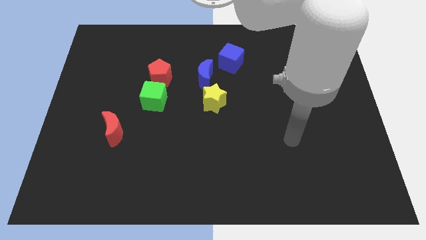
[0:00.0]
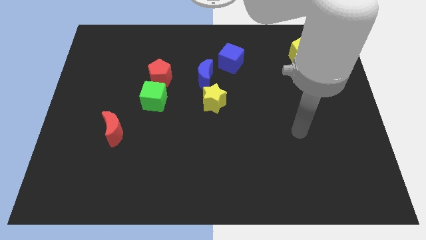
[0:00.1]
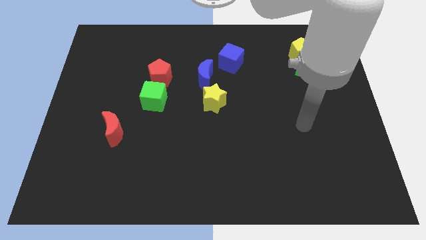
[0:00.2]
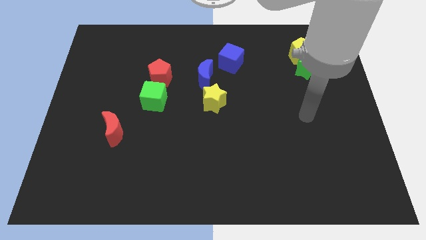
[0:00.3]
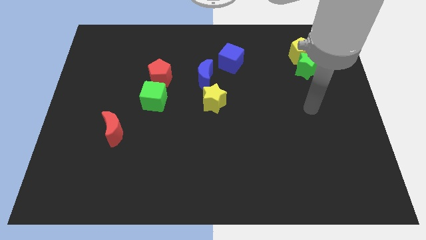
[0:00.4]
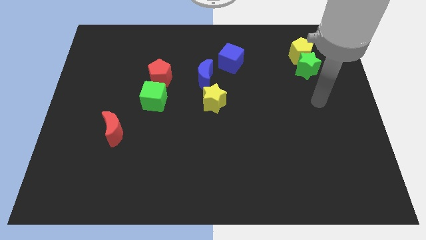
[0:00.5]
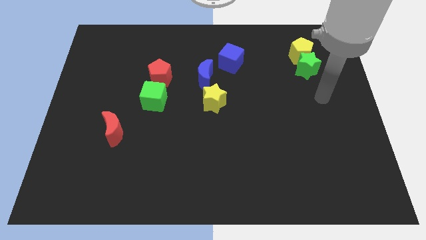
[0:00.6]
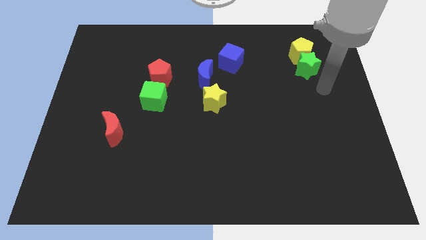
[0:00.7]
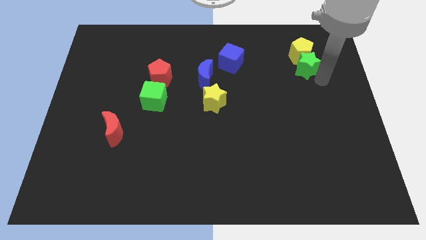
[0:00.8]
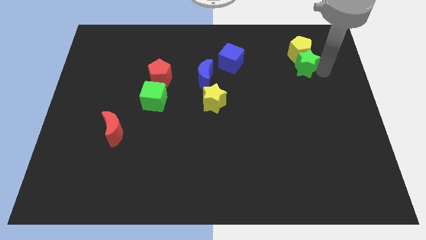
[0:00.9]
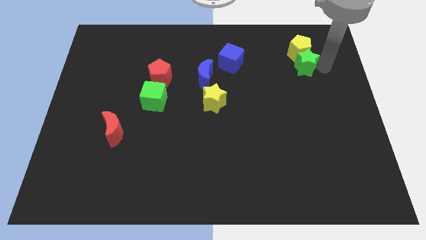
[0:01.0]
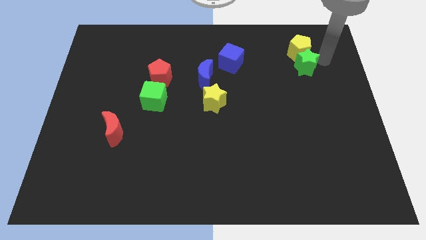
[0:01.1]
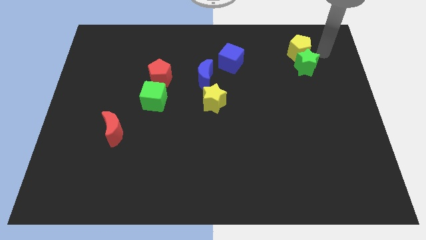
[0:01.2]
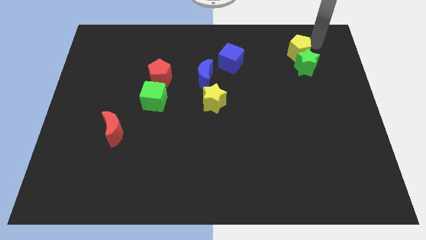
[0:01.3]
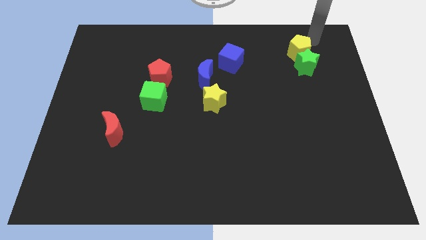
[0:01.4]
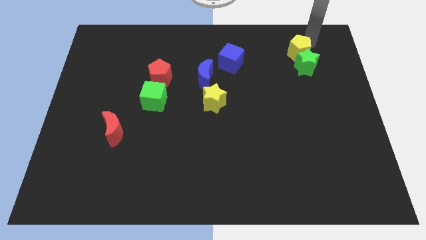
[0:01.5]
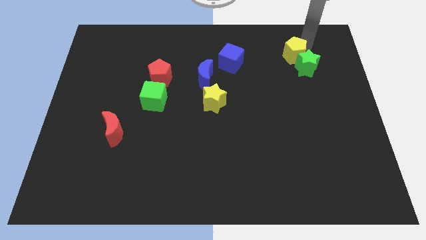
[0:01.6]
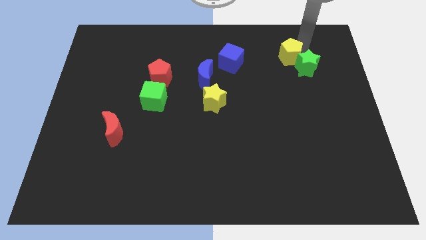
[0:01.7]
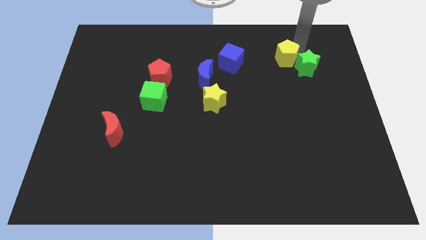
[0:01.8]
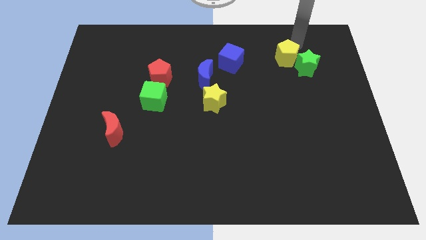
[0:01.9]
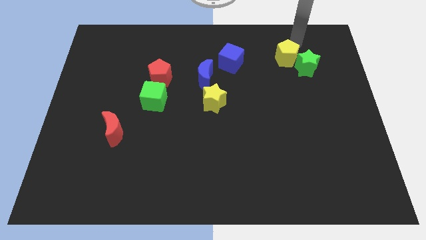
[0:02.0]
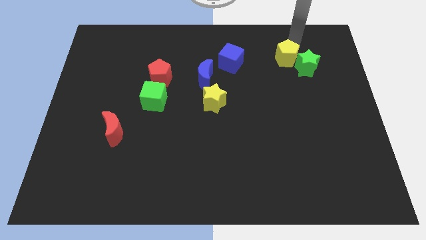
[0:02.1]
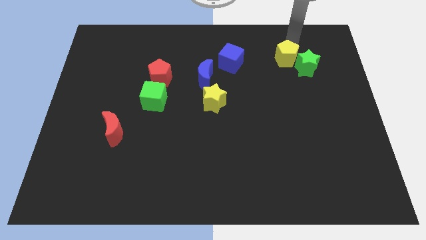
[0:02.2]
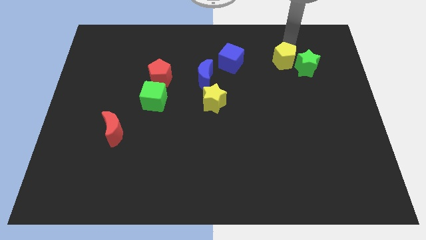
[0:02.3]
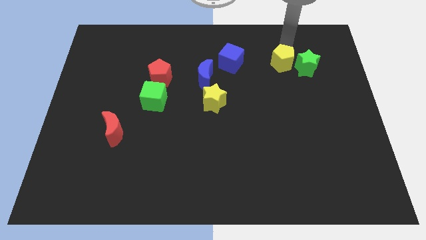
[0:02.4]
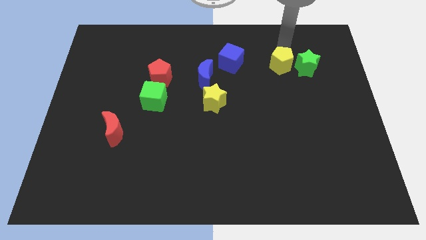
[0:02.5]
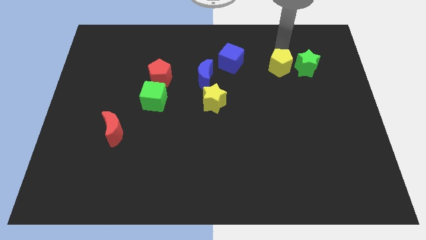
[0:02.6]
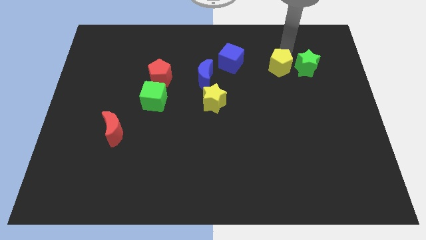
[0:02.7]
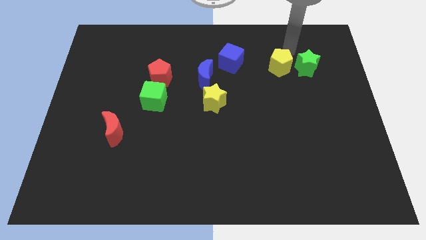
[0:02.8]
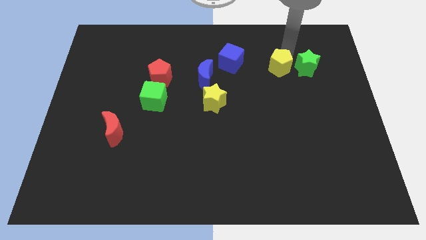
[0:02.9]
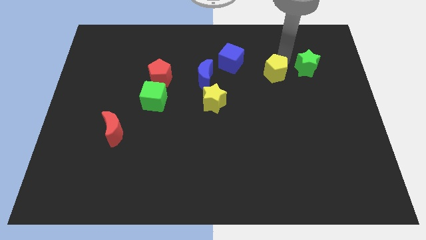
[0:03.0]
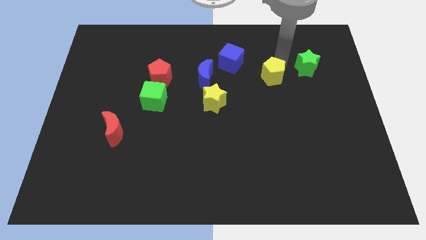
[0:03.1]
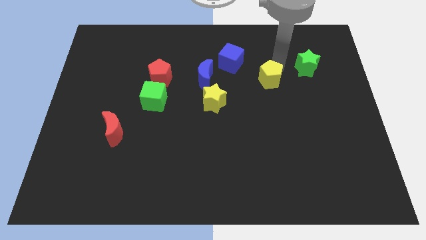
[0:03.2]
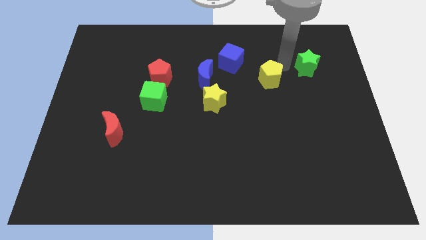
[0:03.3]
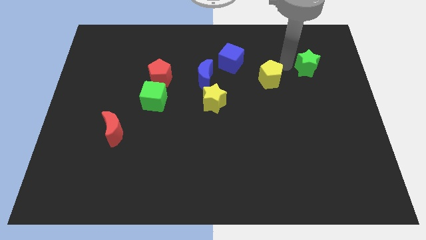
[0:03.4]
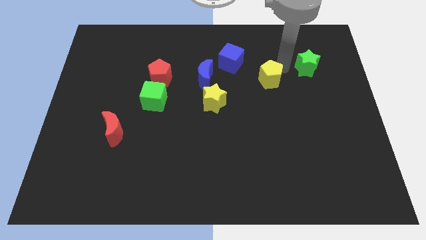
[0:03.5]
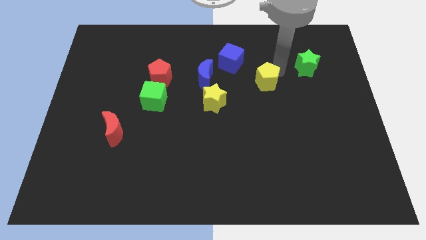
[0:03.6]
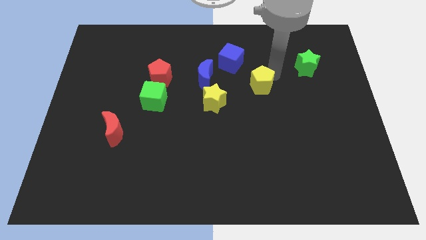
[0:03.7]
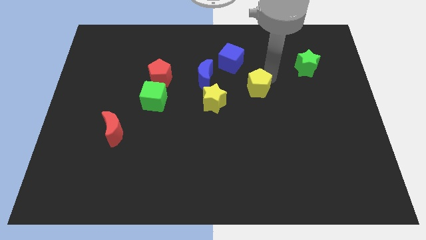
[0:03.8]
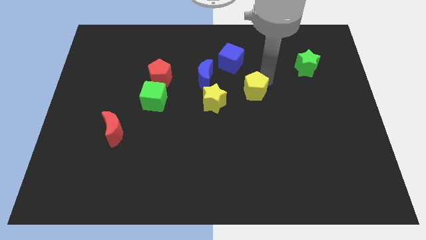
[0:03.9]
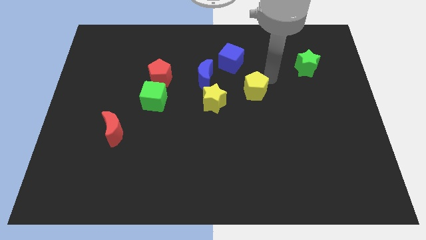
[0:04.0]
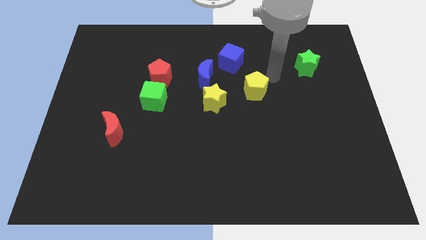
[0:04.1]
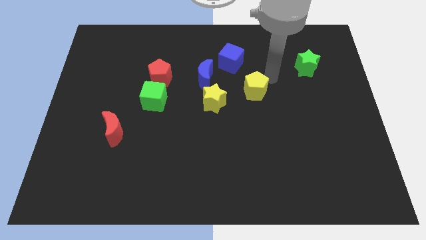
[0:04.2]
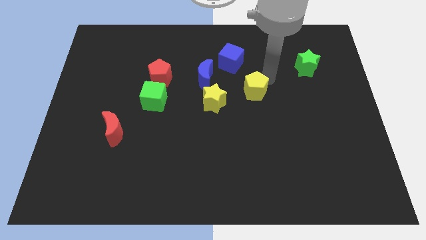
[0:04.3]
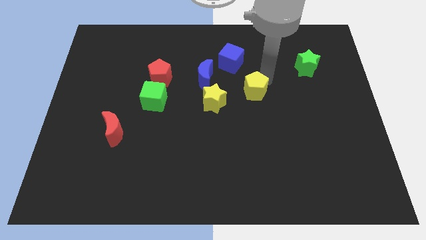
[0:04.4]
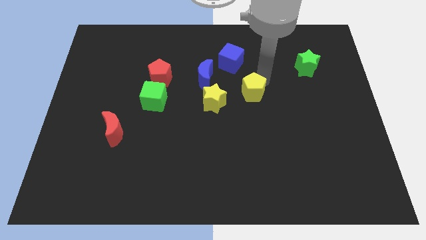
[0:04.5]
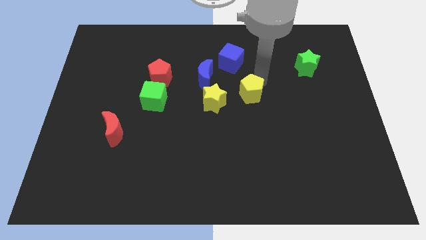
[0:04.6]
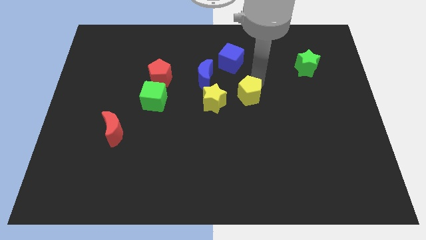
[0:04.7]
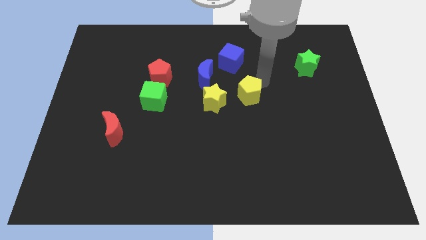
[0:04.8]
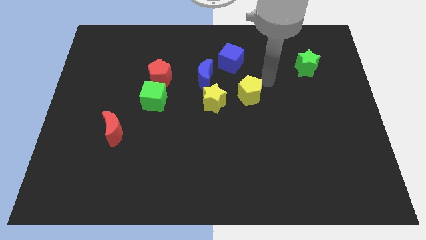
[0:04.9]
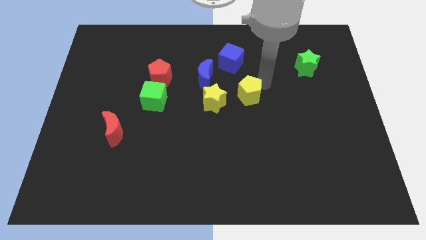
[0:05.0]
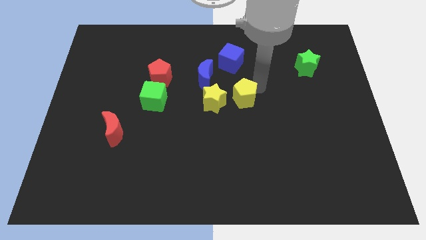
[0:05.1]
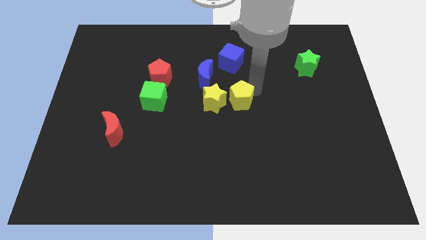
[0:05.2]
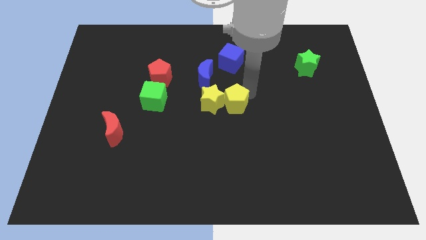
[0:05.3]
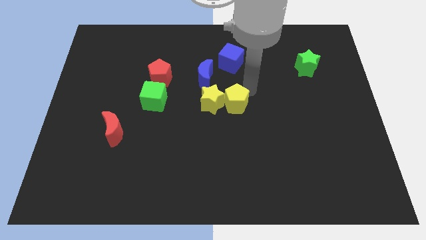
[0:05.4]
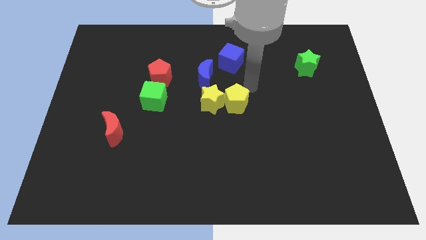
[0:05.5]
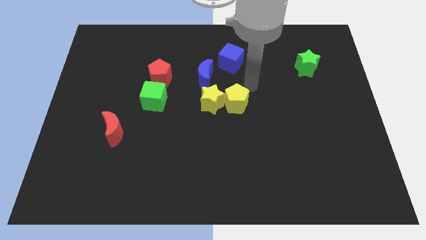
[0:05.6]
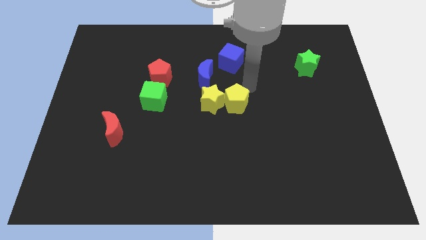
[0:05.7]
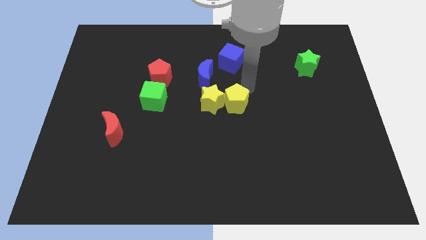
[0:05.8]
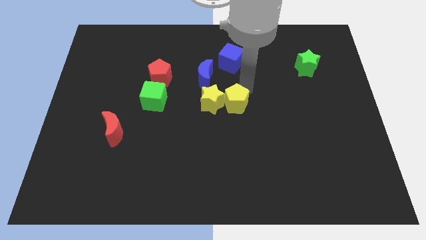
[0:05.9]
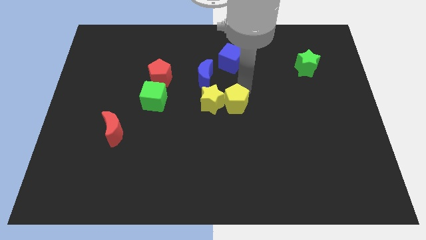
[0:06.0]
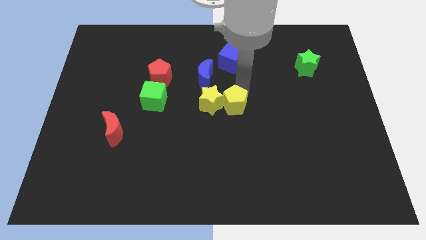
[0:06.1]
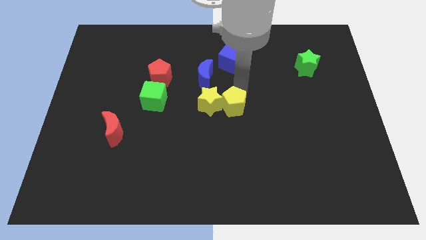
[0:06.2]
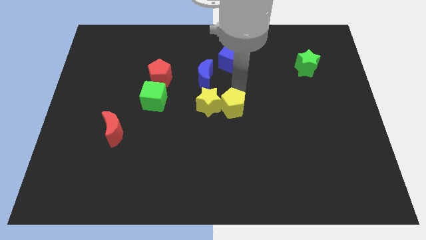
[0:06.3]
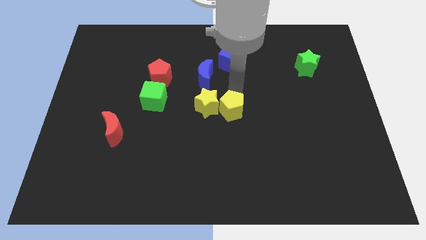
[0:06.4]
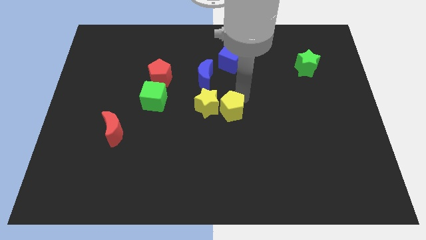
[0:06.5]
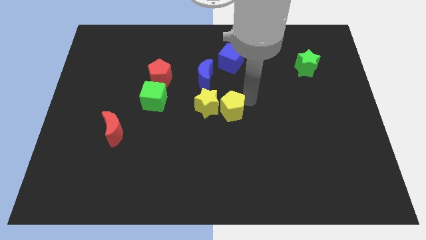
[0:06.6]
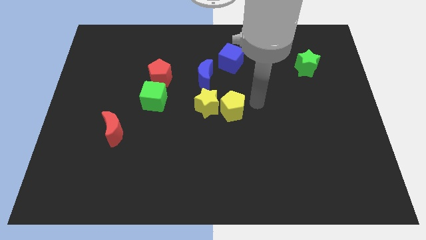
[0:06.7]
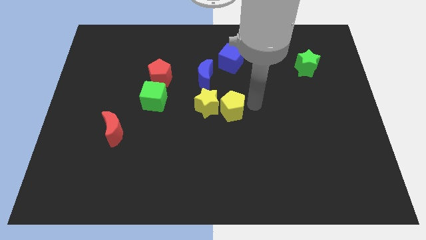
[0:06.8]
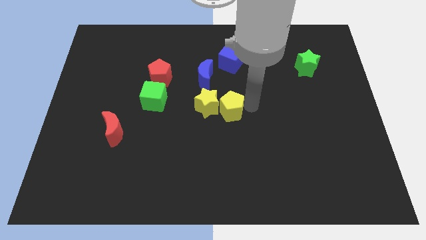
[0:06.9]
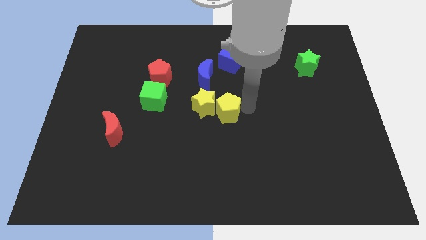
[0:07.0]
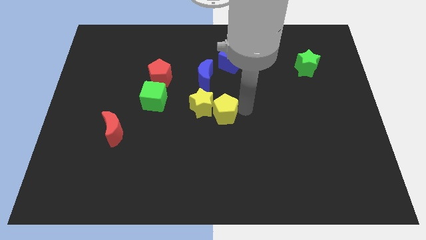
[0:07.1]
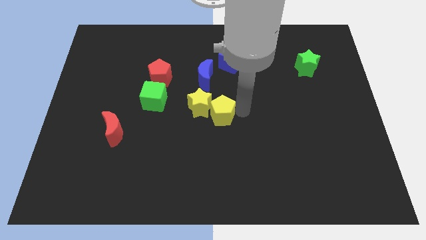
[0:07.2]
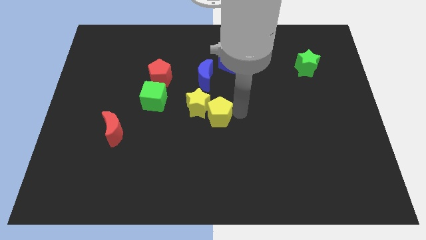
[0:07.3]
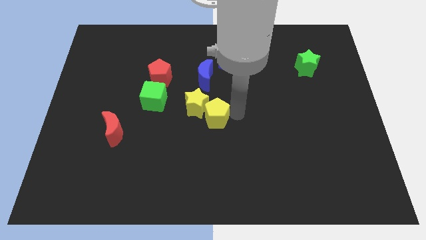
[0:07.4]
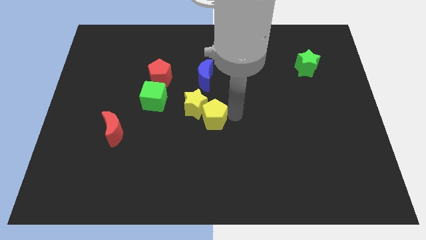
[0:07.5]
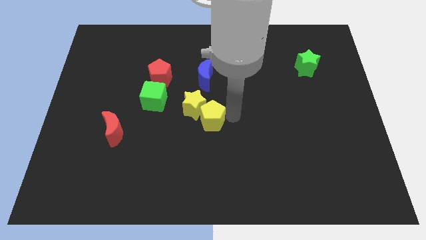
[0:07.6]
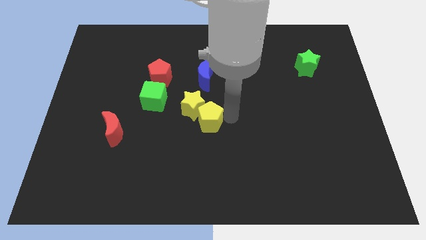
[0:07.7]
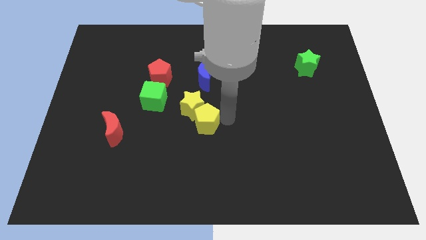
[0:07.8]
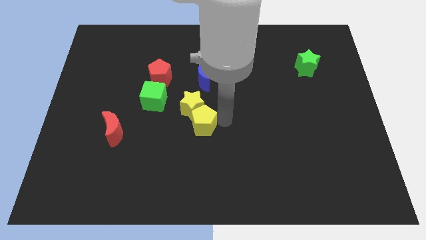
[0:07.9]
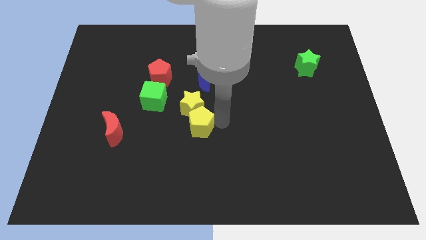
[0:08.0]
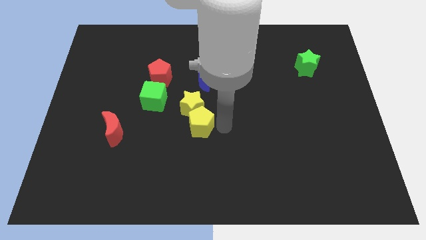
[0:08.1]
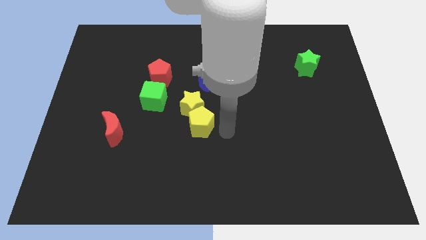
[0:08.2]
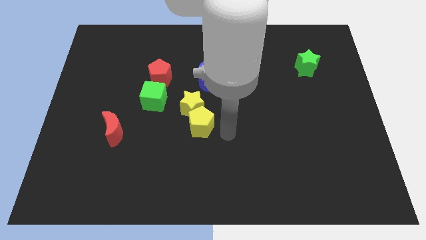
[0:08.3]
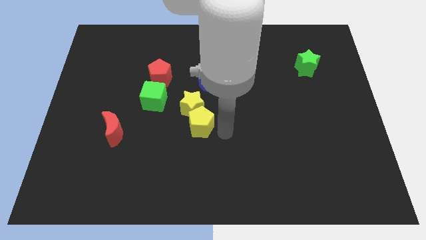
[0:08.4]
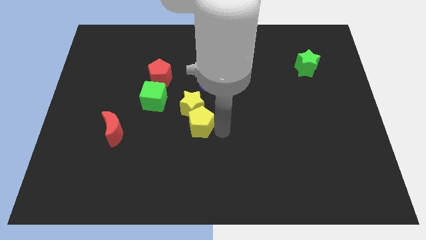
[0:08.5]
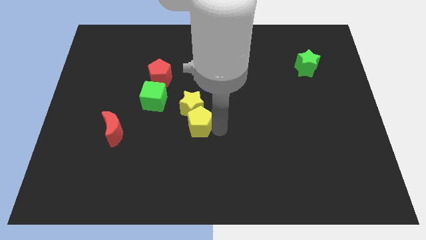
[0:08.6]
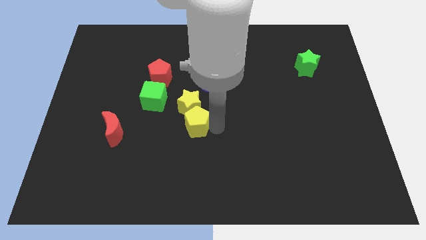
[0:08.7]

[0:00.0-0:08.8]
push the yellow pentagon to the bottom right side of the green cube
